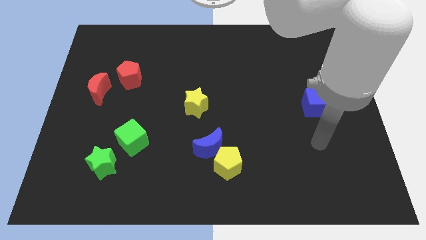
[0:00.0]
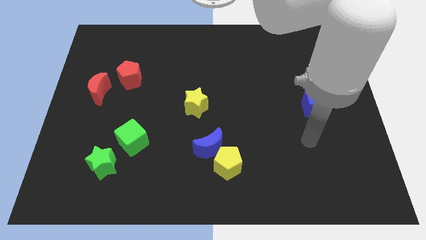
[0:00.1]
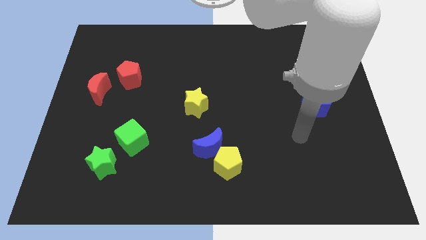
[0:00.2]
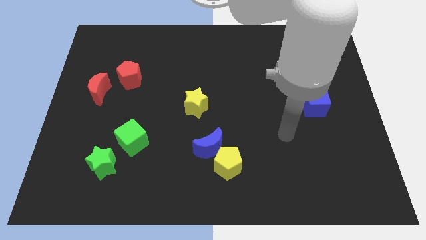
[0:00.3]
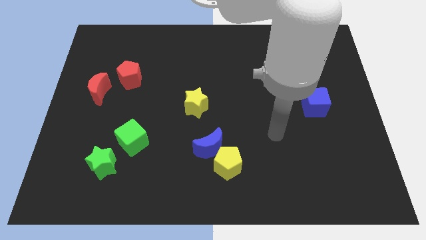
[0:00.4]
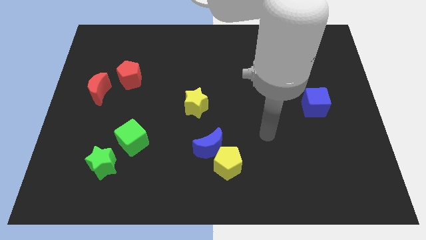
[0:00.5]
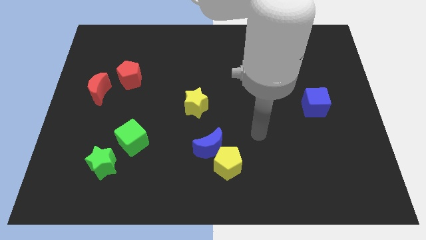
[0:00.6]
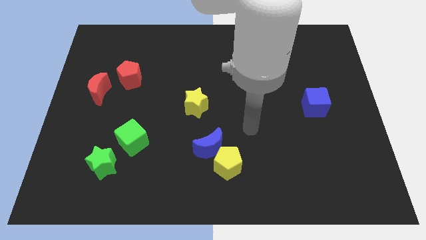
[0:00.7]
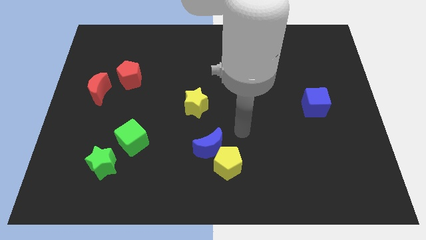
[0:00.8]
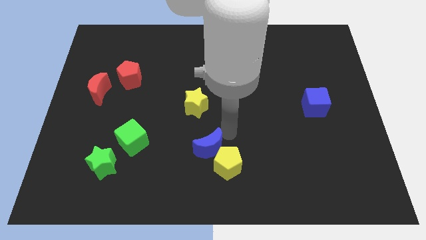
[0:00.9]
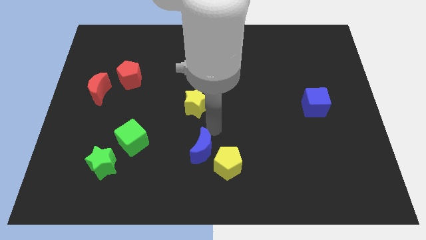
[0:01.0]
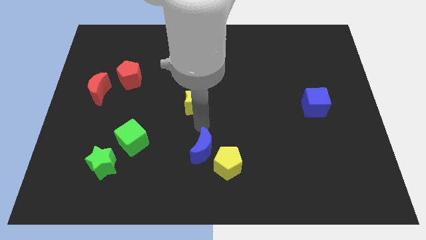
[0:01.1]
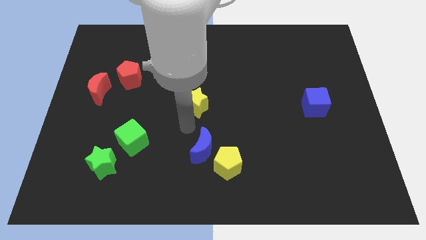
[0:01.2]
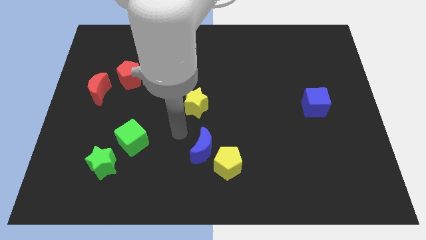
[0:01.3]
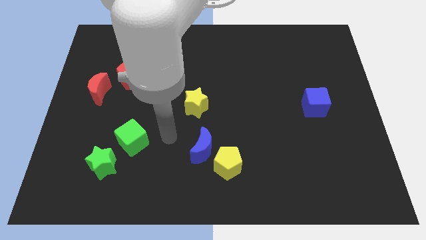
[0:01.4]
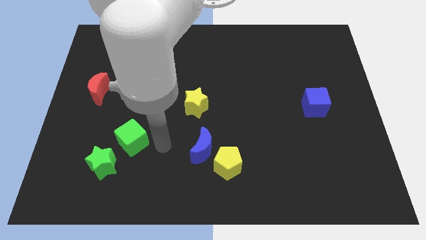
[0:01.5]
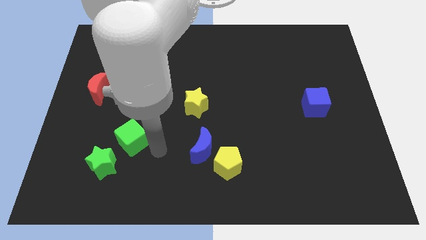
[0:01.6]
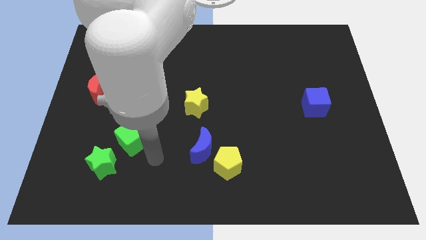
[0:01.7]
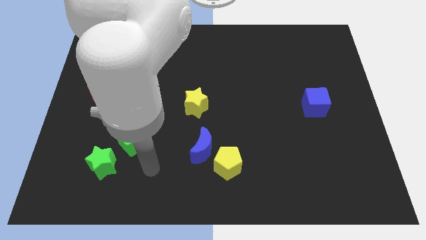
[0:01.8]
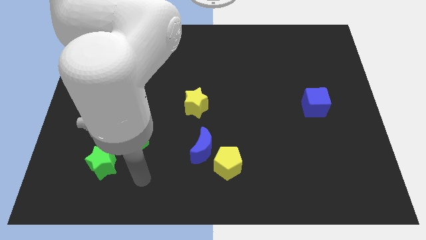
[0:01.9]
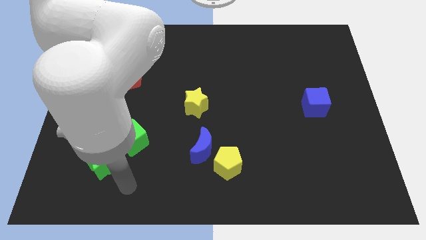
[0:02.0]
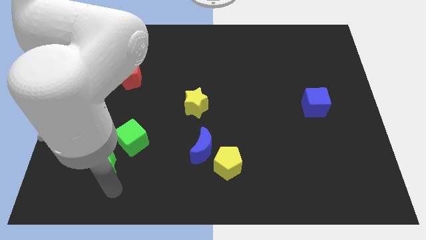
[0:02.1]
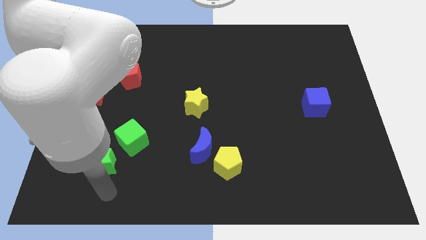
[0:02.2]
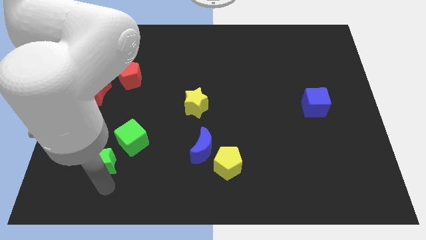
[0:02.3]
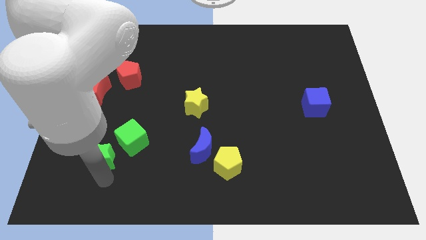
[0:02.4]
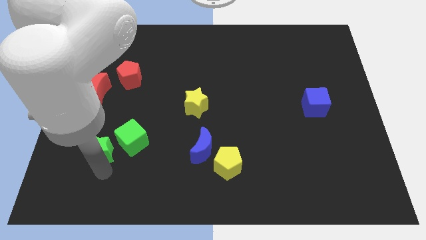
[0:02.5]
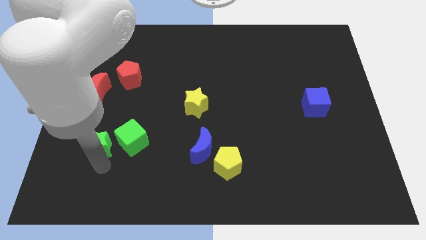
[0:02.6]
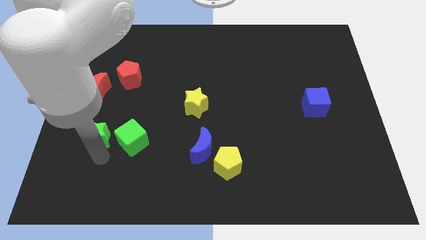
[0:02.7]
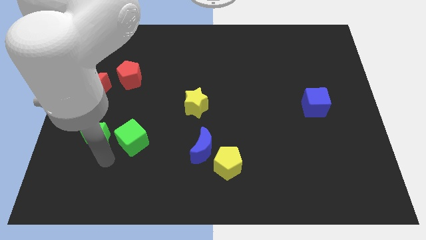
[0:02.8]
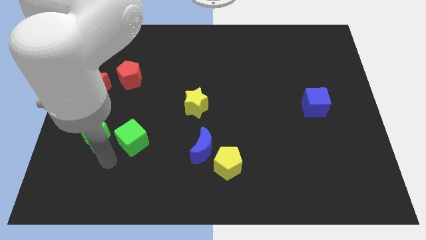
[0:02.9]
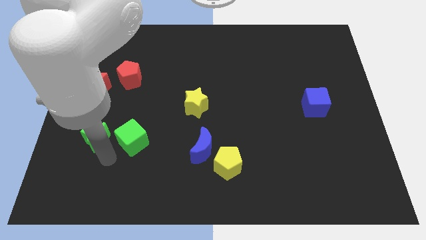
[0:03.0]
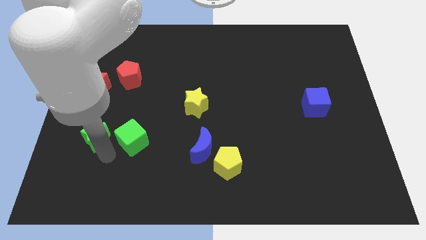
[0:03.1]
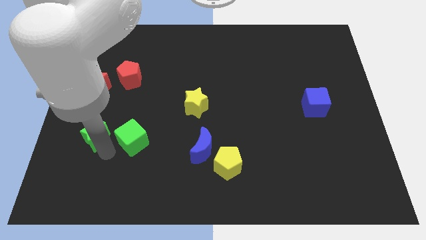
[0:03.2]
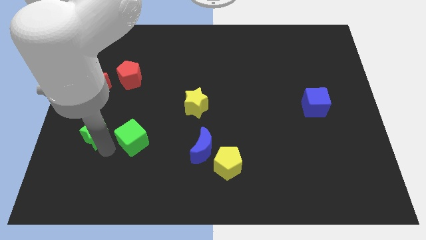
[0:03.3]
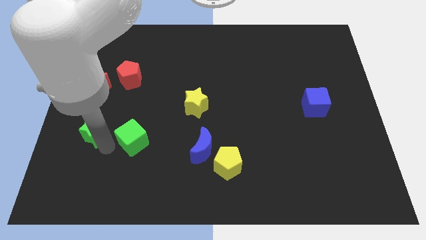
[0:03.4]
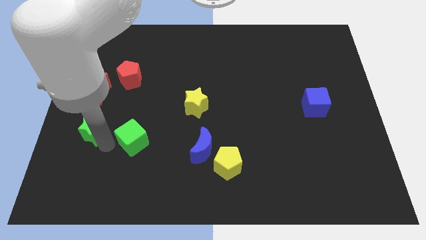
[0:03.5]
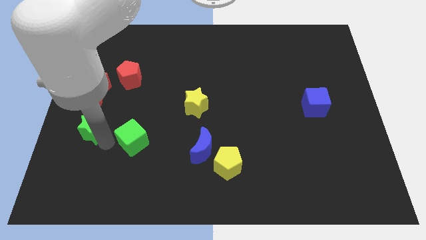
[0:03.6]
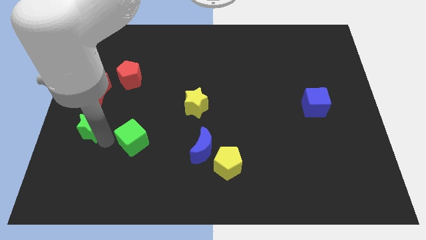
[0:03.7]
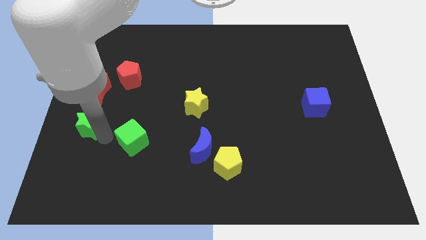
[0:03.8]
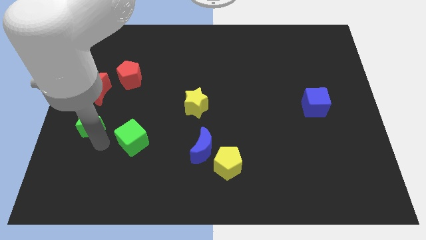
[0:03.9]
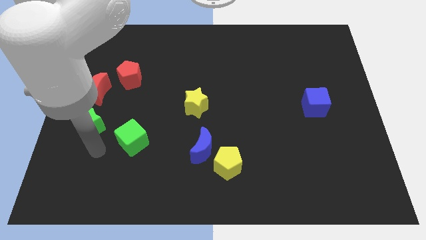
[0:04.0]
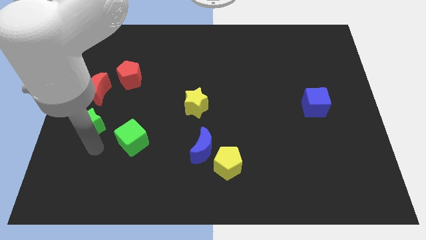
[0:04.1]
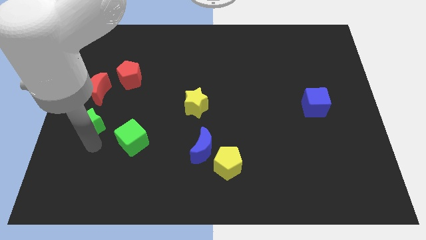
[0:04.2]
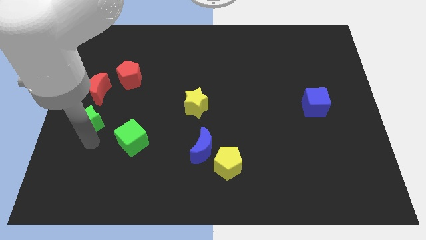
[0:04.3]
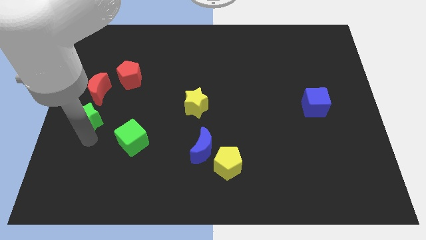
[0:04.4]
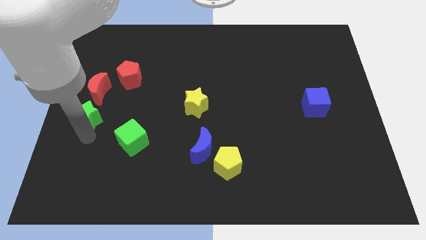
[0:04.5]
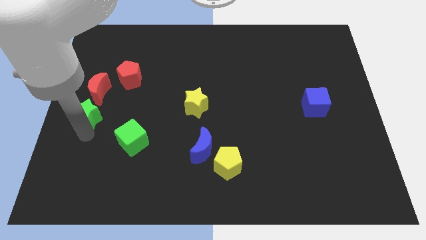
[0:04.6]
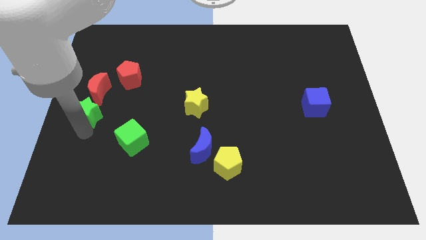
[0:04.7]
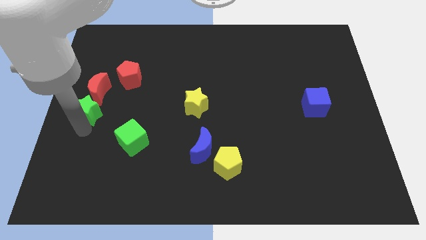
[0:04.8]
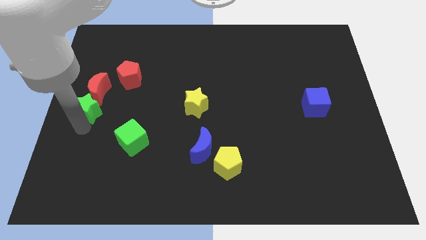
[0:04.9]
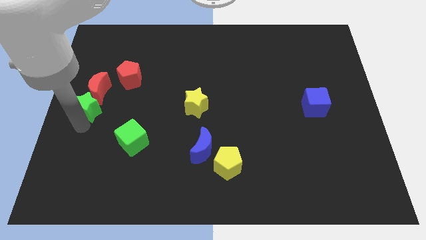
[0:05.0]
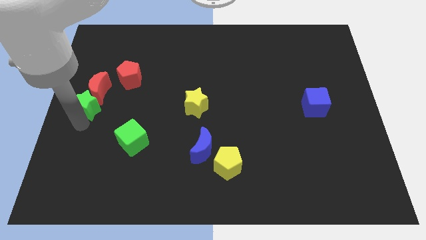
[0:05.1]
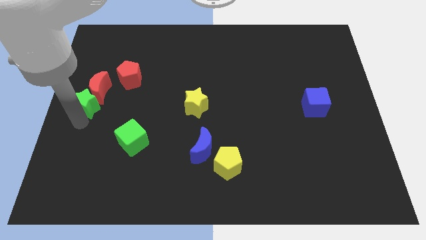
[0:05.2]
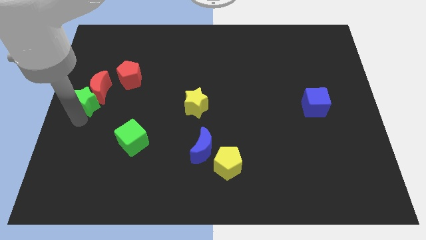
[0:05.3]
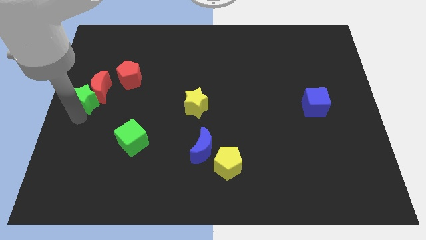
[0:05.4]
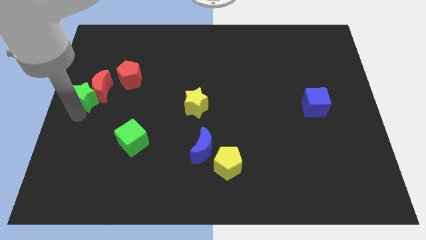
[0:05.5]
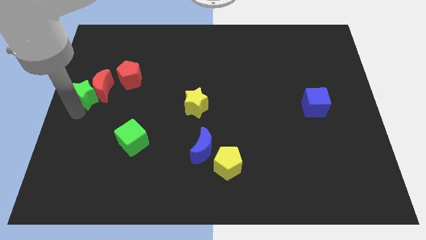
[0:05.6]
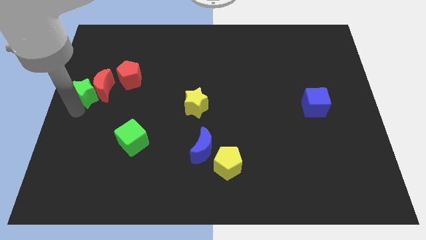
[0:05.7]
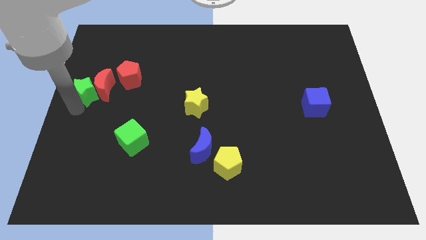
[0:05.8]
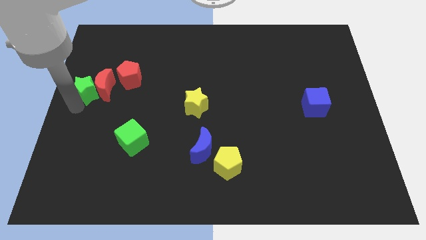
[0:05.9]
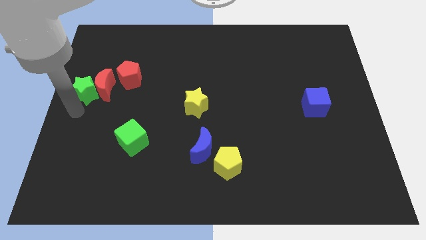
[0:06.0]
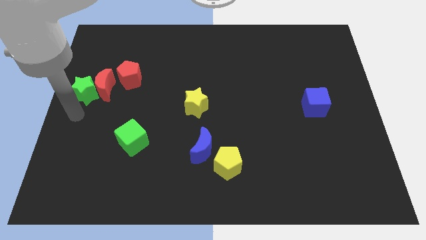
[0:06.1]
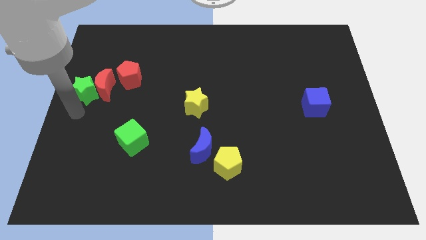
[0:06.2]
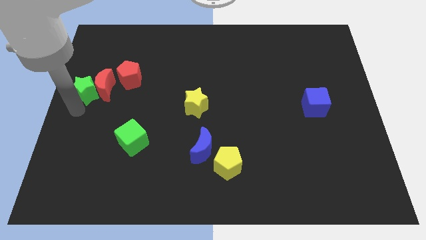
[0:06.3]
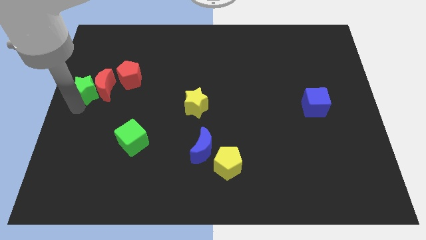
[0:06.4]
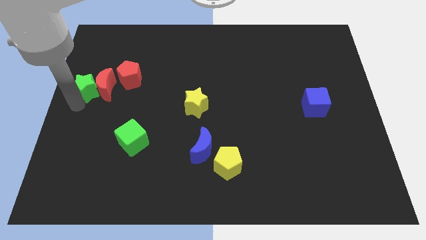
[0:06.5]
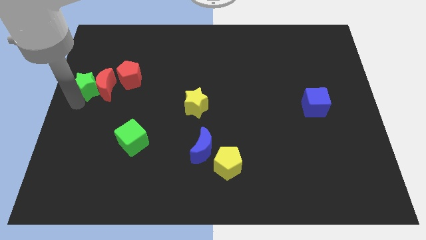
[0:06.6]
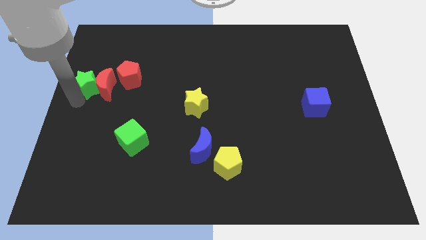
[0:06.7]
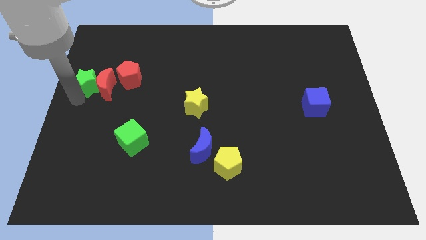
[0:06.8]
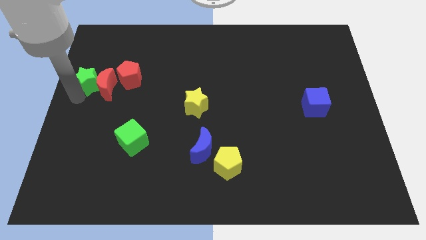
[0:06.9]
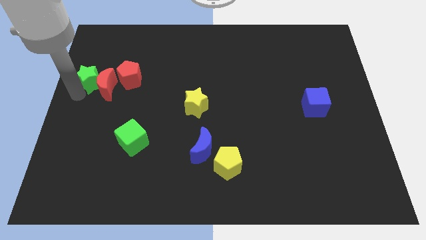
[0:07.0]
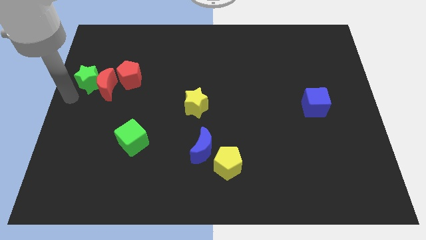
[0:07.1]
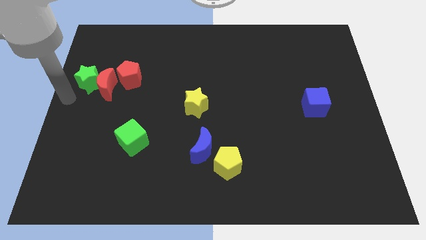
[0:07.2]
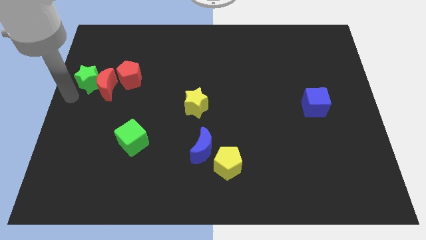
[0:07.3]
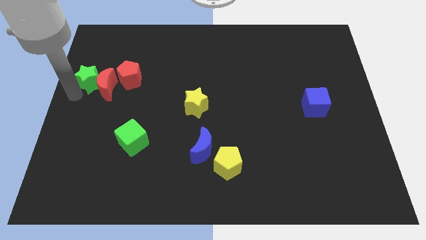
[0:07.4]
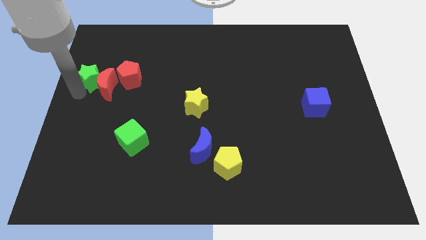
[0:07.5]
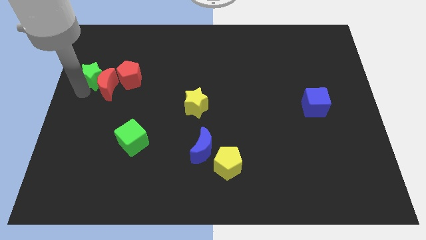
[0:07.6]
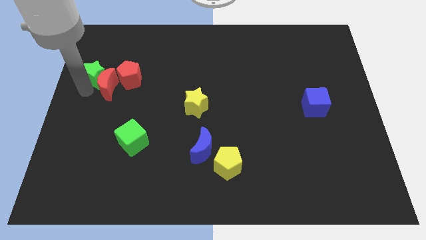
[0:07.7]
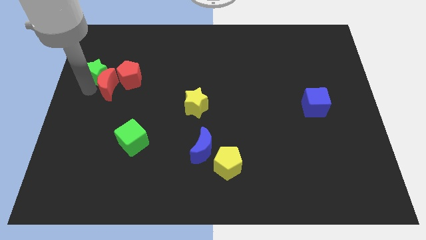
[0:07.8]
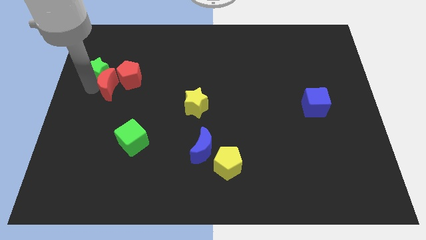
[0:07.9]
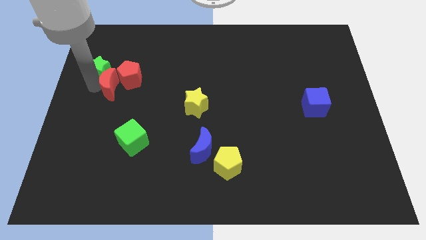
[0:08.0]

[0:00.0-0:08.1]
put the green star diagonally up and to the left of the red pentagon
